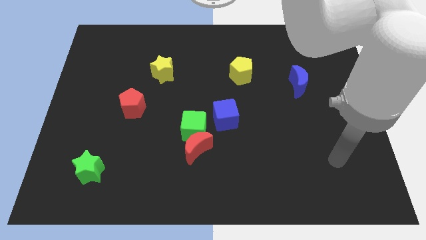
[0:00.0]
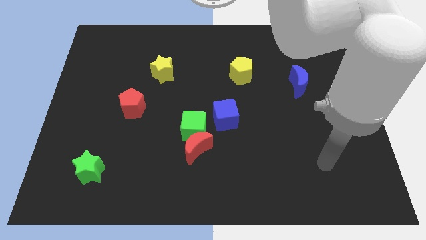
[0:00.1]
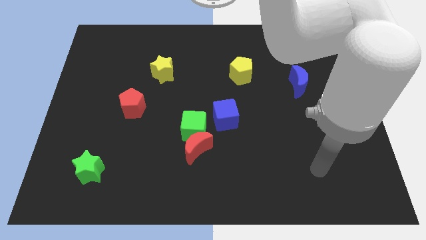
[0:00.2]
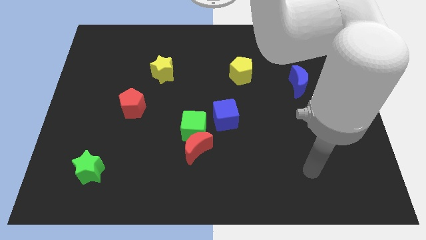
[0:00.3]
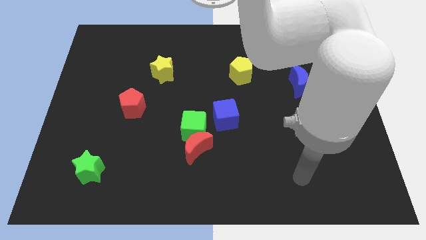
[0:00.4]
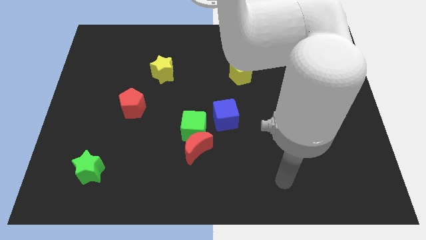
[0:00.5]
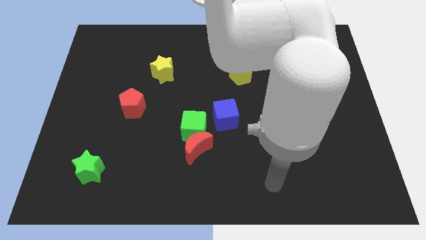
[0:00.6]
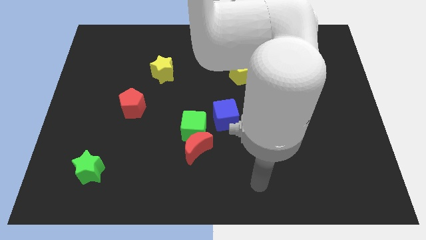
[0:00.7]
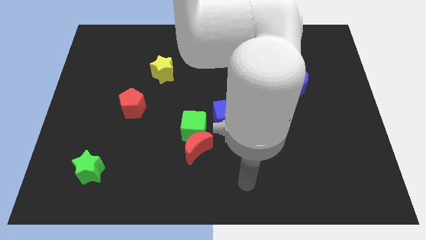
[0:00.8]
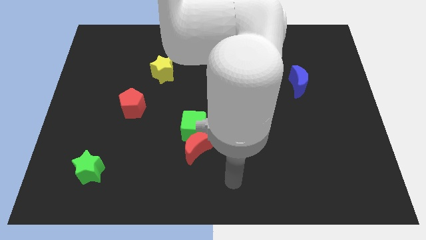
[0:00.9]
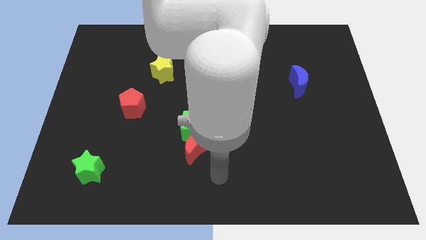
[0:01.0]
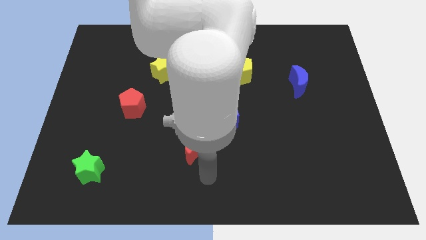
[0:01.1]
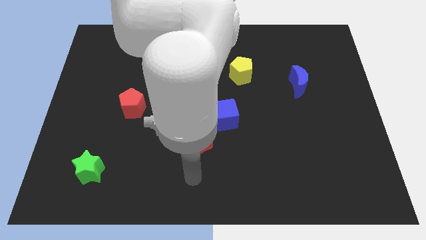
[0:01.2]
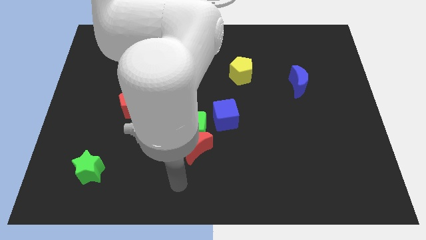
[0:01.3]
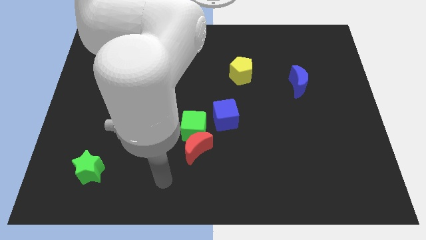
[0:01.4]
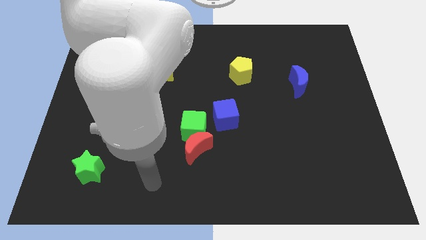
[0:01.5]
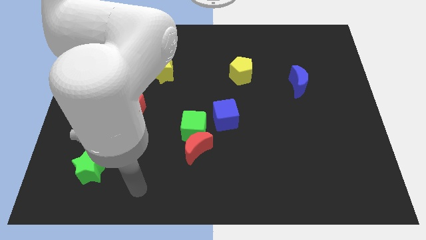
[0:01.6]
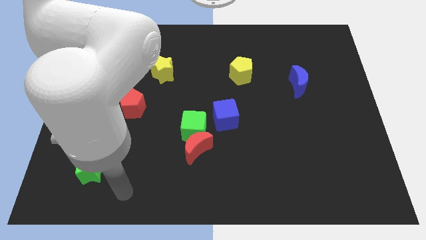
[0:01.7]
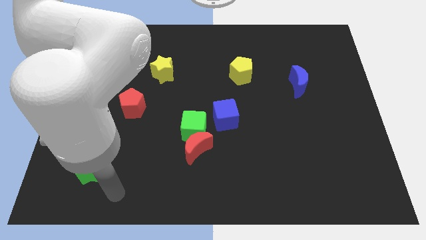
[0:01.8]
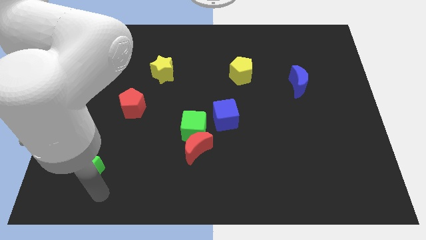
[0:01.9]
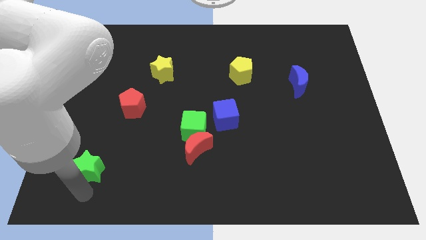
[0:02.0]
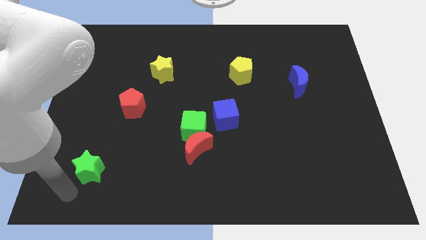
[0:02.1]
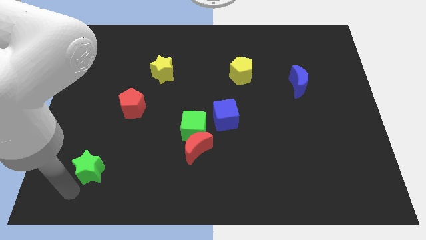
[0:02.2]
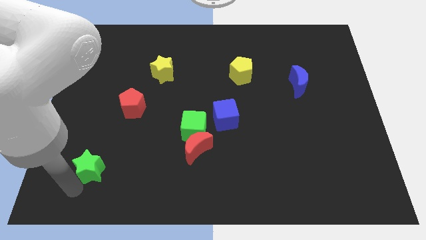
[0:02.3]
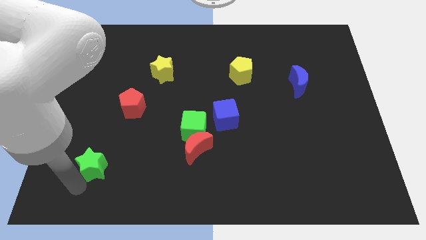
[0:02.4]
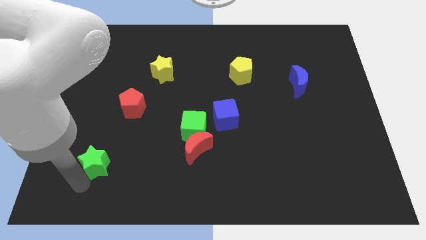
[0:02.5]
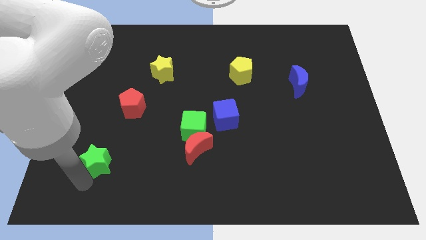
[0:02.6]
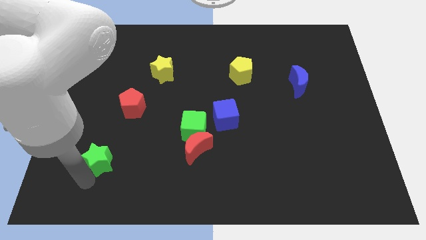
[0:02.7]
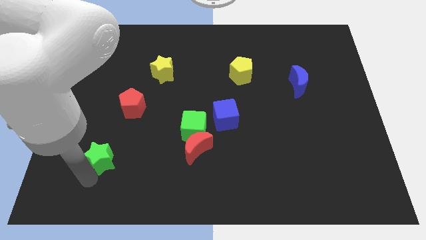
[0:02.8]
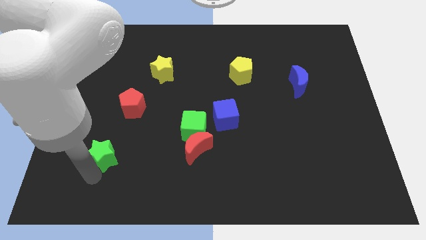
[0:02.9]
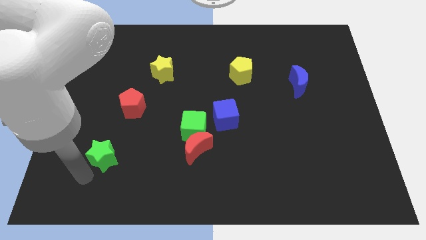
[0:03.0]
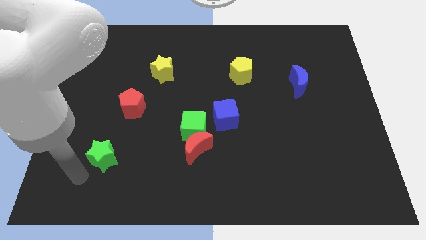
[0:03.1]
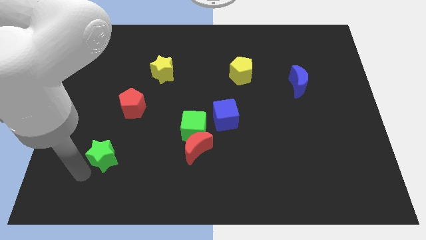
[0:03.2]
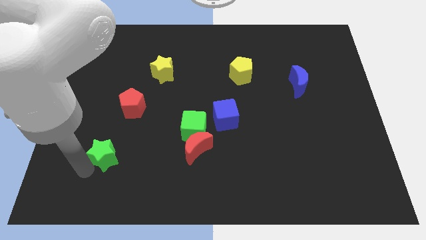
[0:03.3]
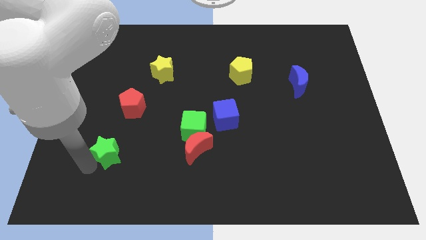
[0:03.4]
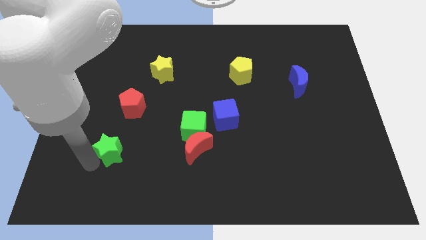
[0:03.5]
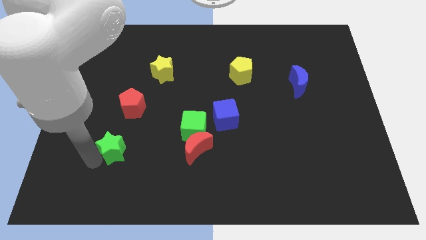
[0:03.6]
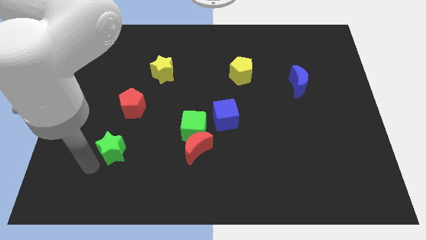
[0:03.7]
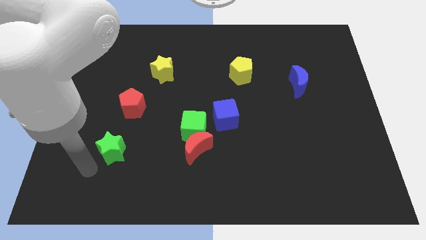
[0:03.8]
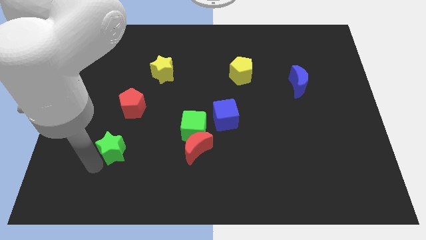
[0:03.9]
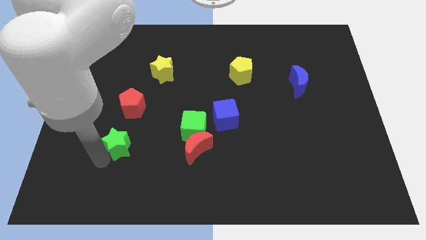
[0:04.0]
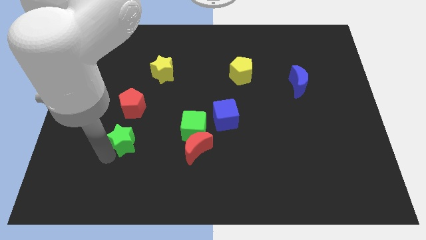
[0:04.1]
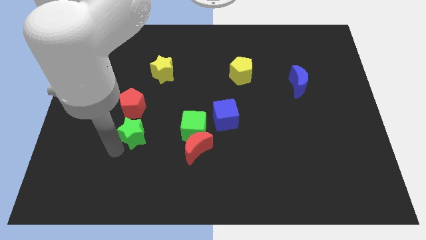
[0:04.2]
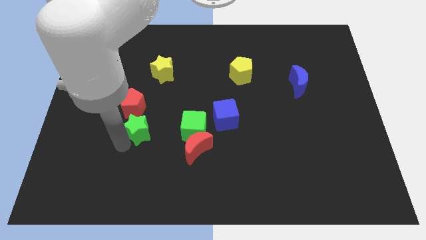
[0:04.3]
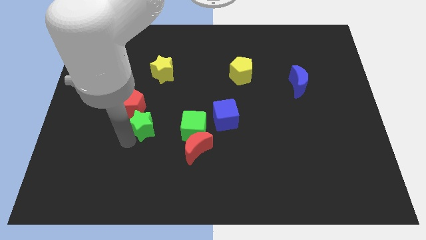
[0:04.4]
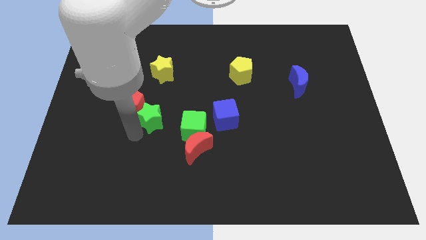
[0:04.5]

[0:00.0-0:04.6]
push the green star to the top left of the green cube

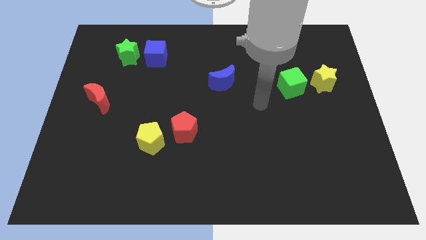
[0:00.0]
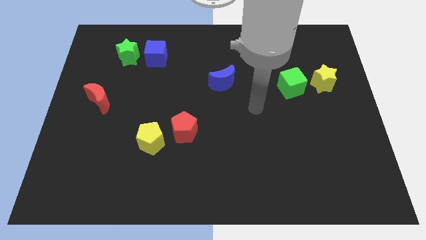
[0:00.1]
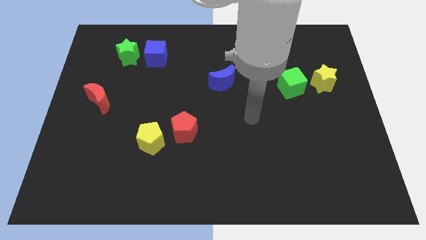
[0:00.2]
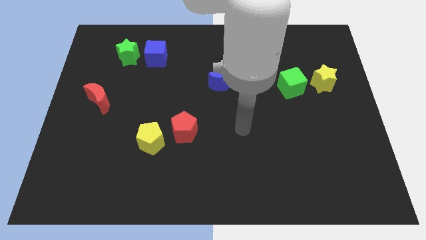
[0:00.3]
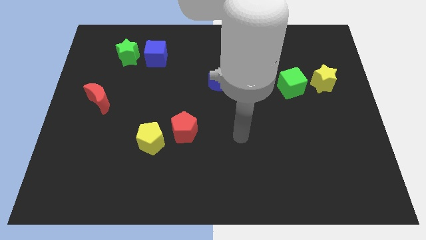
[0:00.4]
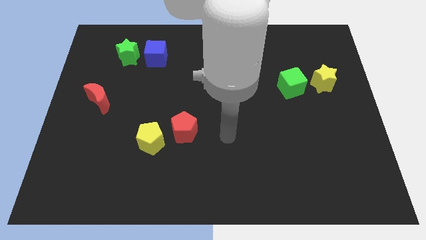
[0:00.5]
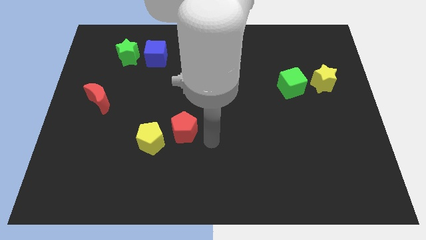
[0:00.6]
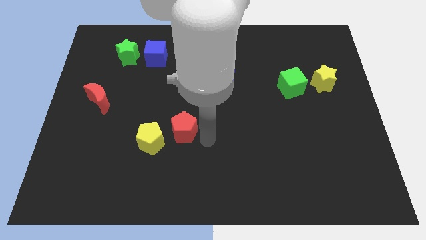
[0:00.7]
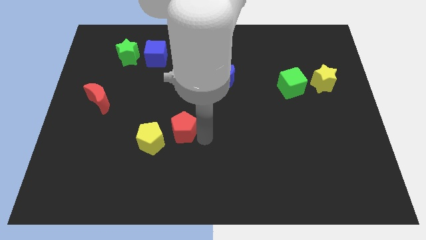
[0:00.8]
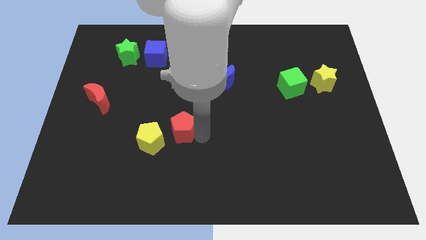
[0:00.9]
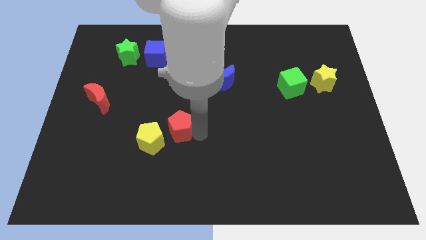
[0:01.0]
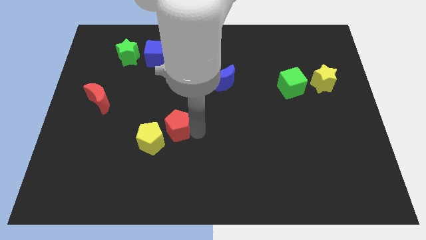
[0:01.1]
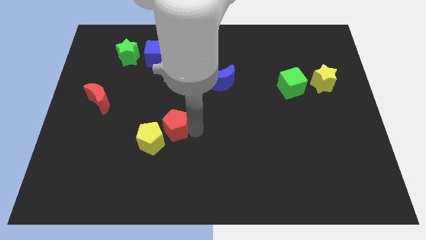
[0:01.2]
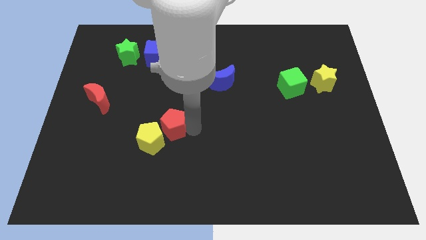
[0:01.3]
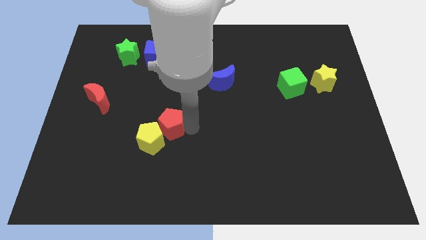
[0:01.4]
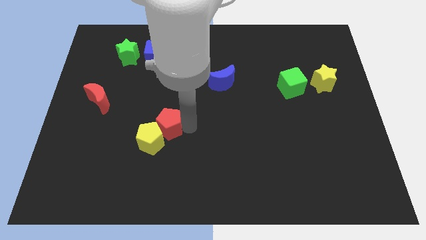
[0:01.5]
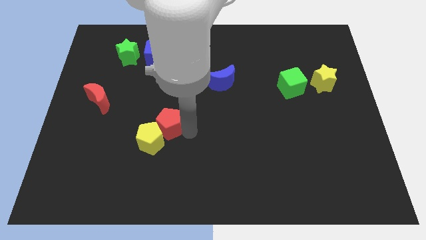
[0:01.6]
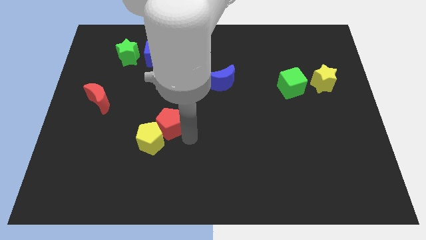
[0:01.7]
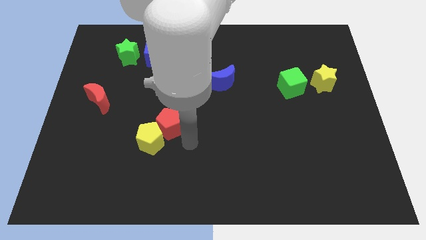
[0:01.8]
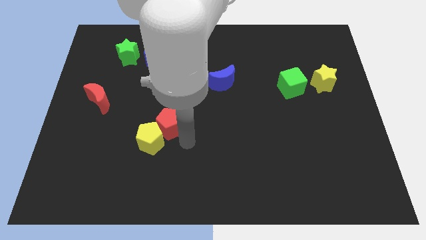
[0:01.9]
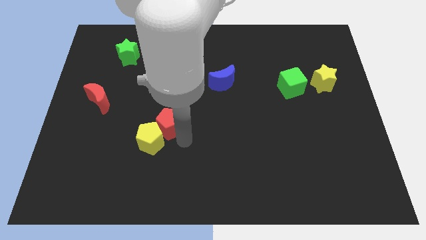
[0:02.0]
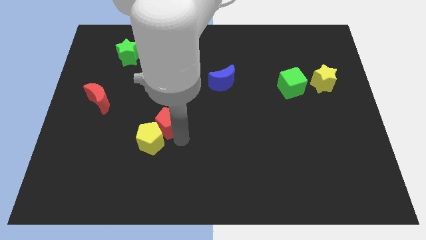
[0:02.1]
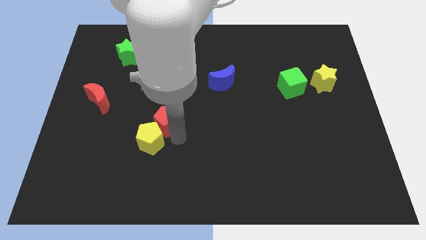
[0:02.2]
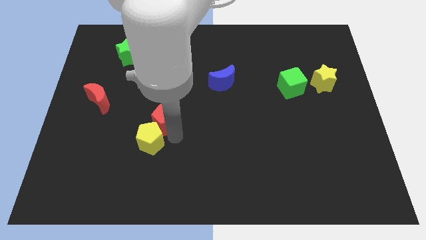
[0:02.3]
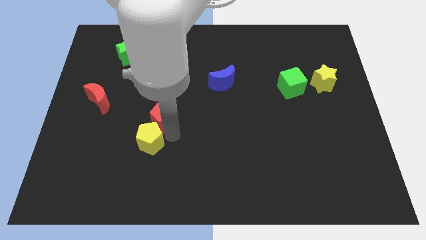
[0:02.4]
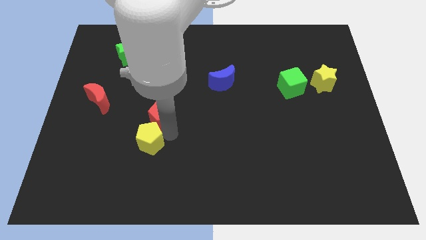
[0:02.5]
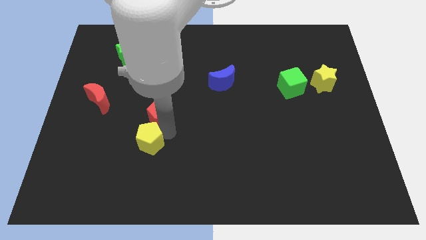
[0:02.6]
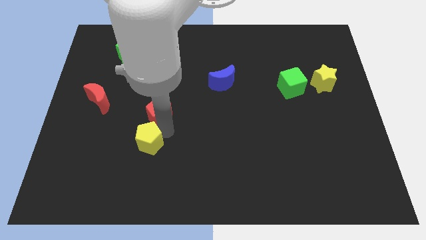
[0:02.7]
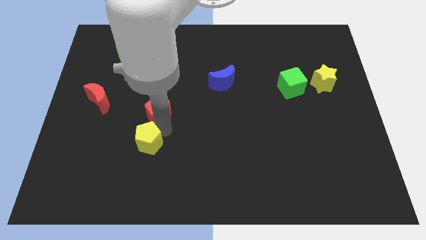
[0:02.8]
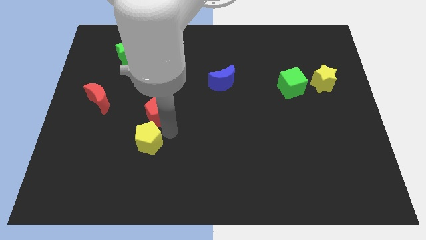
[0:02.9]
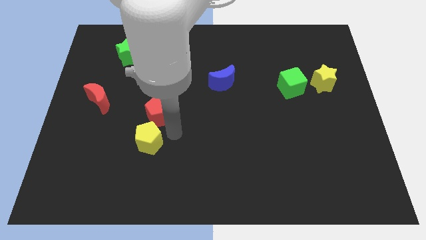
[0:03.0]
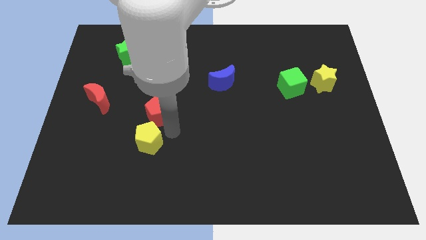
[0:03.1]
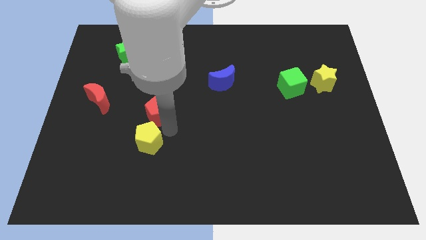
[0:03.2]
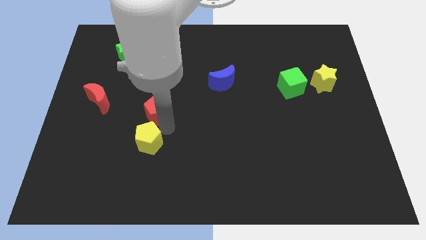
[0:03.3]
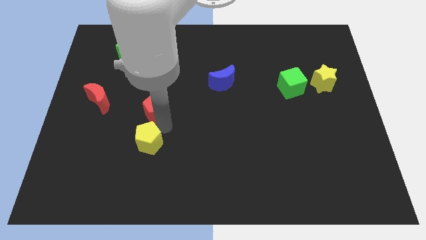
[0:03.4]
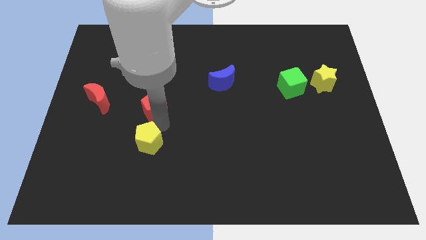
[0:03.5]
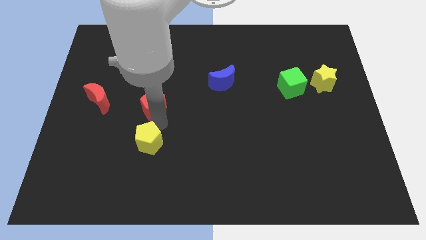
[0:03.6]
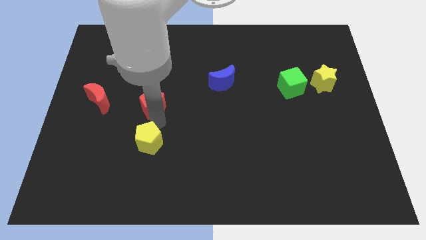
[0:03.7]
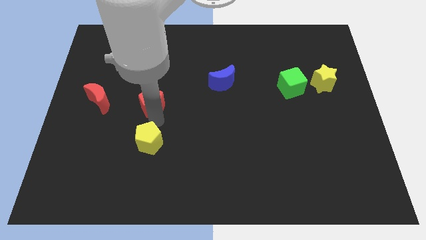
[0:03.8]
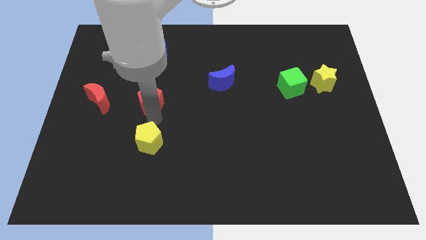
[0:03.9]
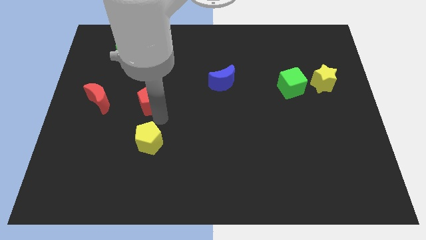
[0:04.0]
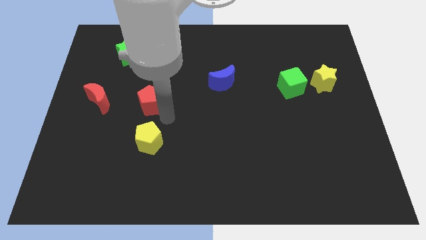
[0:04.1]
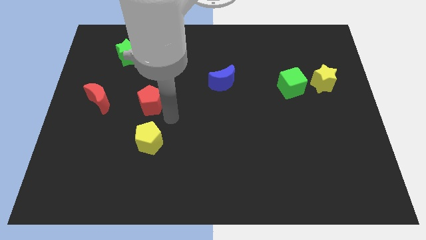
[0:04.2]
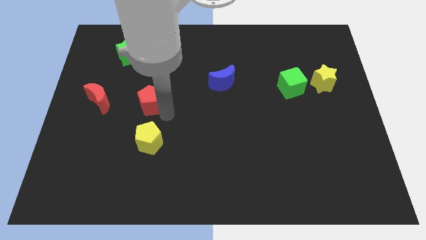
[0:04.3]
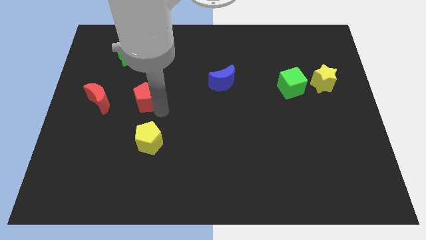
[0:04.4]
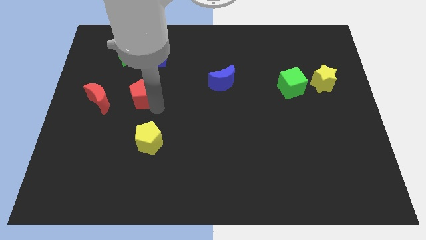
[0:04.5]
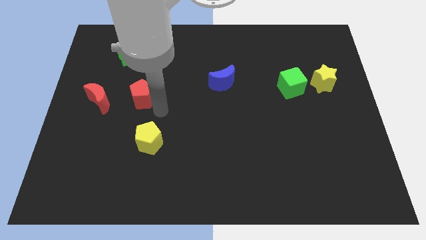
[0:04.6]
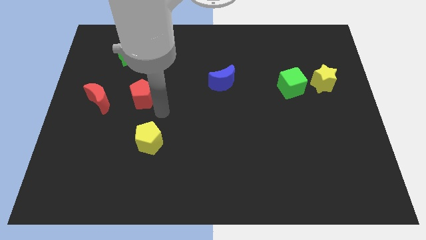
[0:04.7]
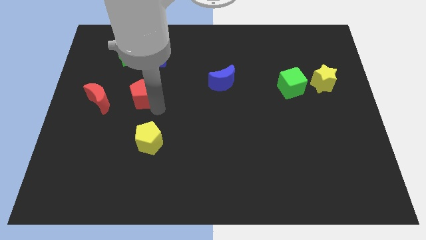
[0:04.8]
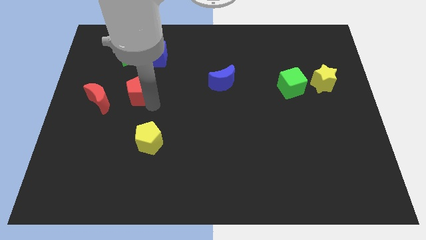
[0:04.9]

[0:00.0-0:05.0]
move the red pentagon to the top right side of the red moon
